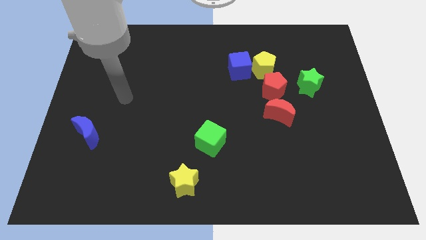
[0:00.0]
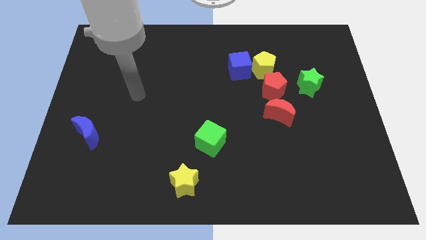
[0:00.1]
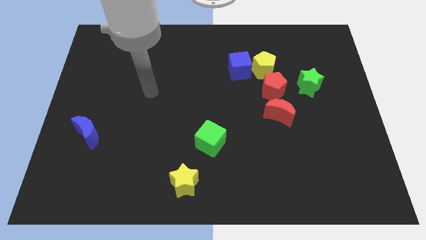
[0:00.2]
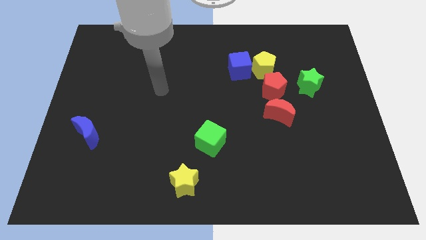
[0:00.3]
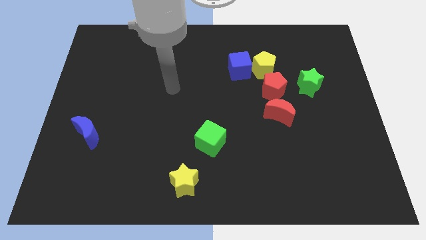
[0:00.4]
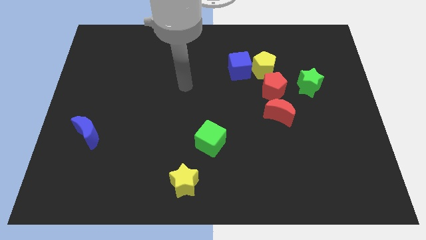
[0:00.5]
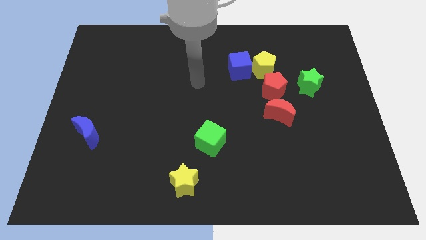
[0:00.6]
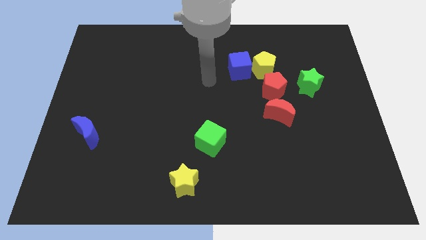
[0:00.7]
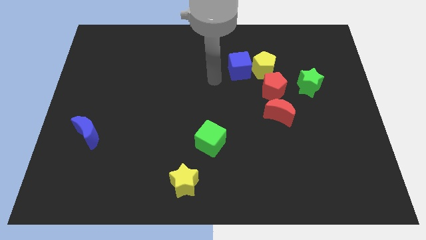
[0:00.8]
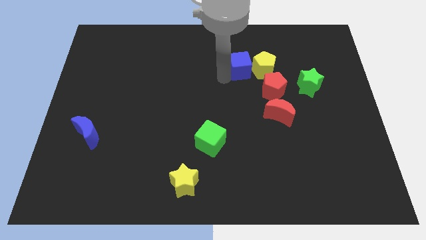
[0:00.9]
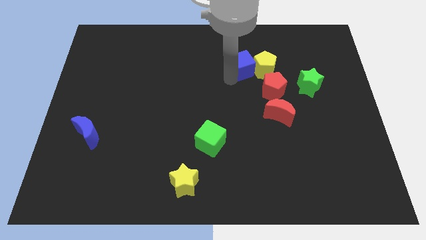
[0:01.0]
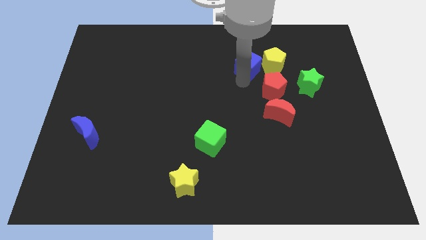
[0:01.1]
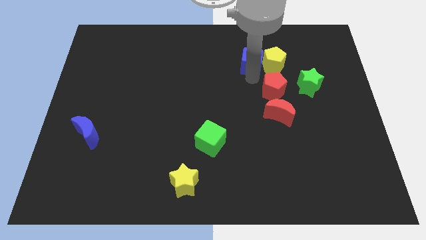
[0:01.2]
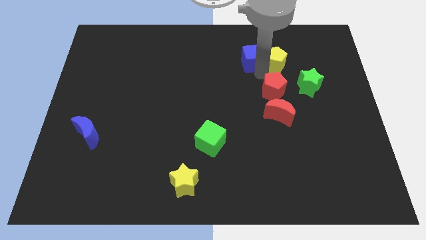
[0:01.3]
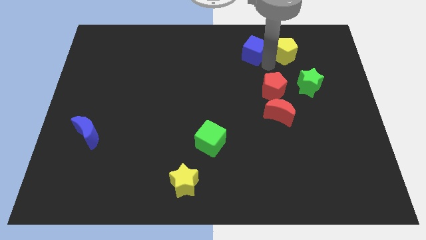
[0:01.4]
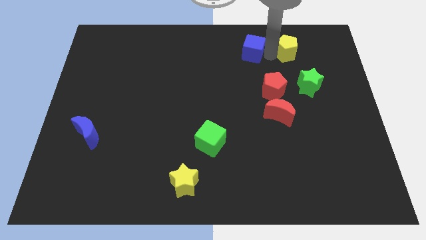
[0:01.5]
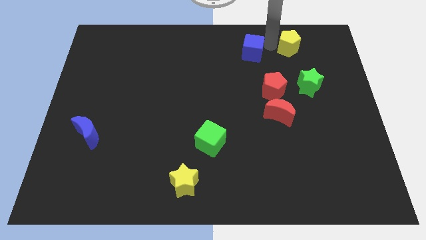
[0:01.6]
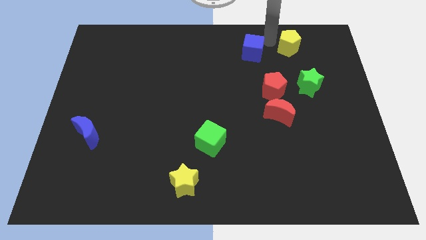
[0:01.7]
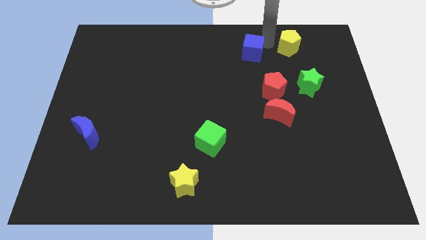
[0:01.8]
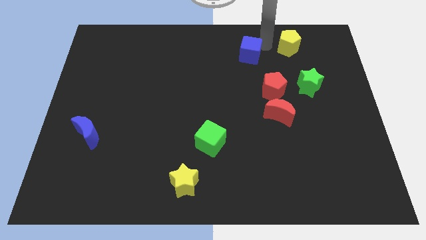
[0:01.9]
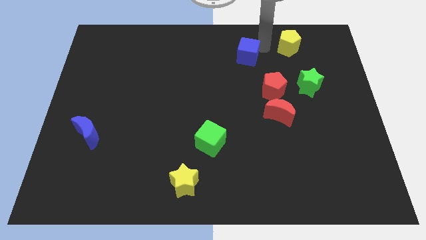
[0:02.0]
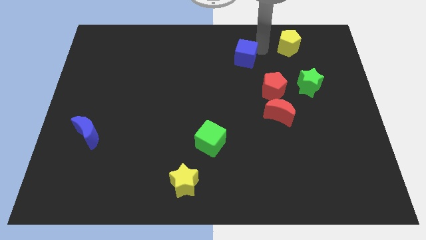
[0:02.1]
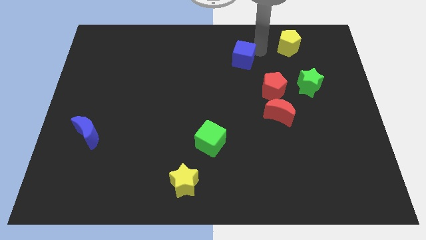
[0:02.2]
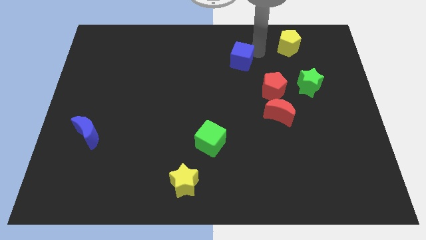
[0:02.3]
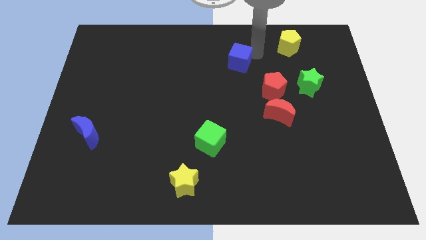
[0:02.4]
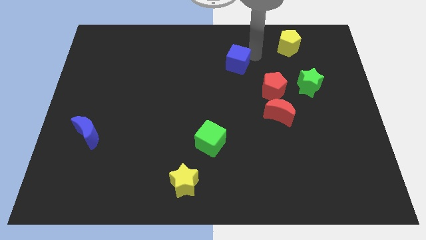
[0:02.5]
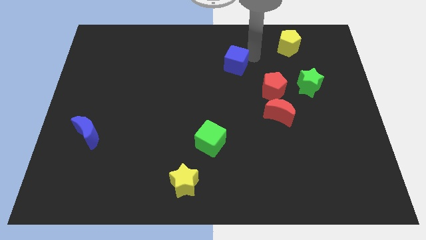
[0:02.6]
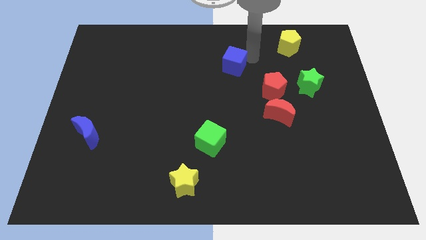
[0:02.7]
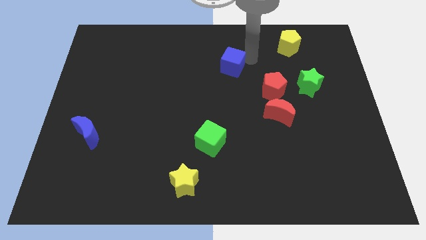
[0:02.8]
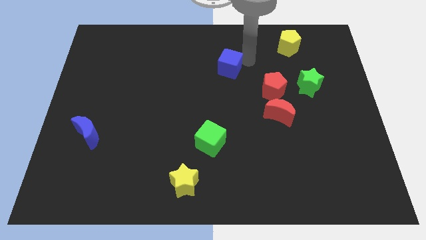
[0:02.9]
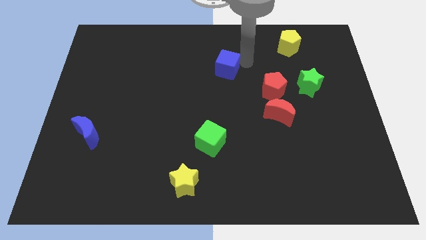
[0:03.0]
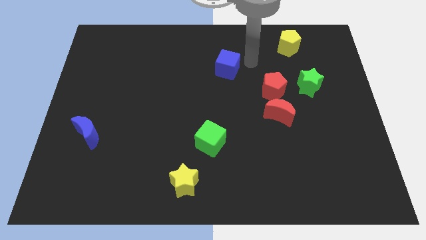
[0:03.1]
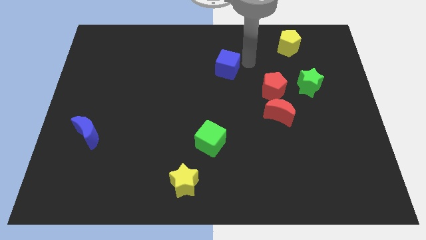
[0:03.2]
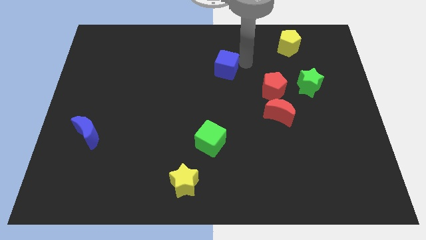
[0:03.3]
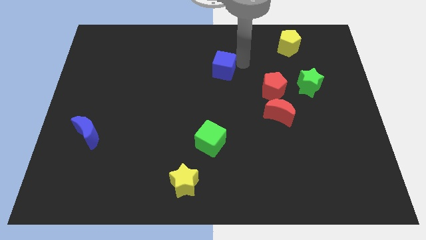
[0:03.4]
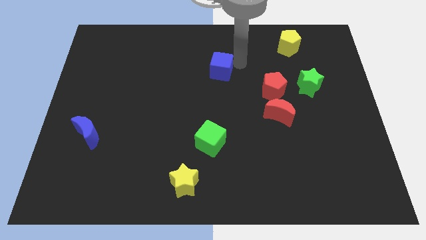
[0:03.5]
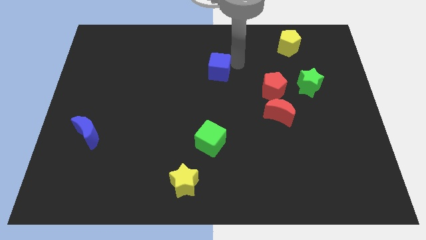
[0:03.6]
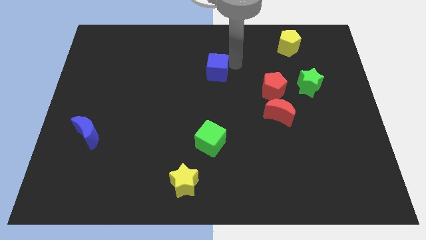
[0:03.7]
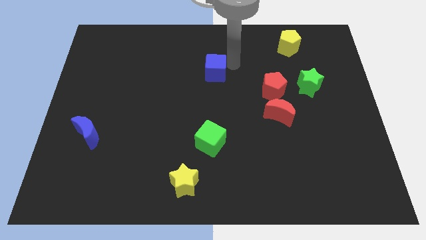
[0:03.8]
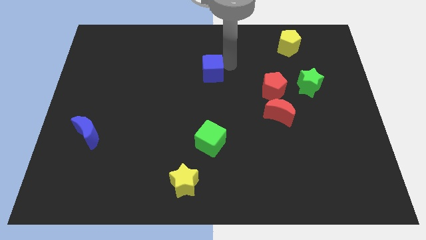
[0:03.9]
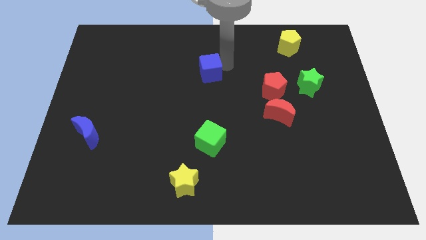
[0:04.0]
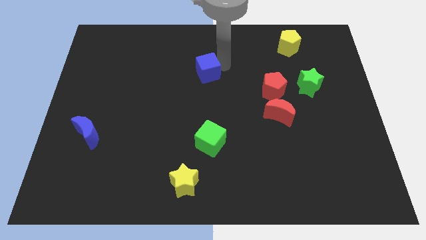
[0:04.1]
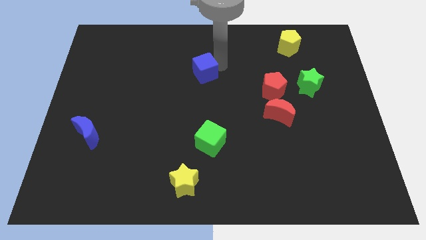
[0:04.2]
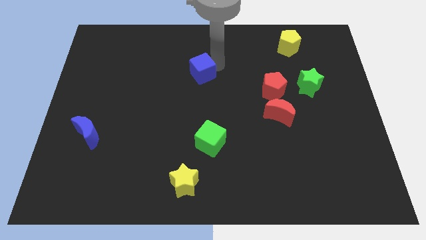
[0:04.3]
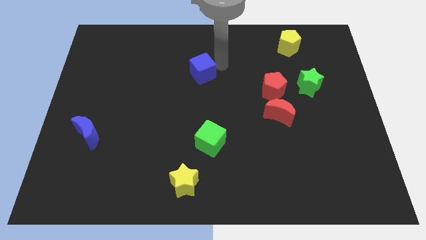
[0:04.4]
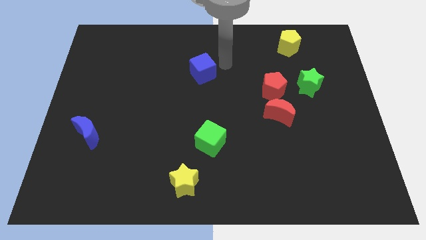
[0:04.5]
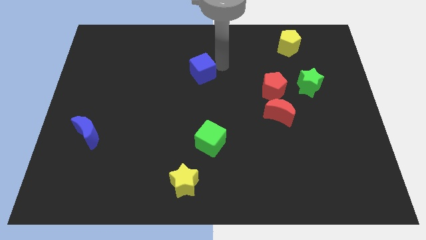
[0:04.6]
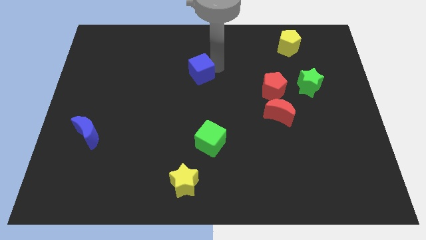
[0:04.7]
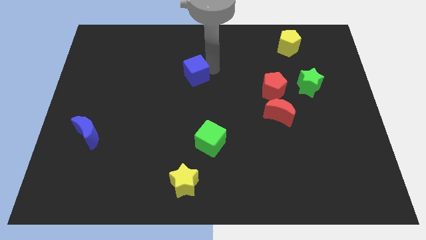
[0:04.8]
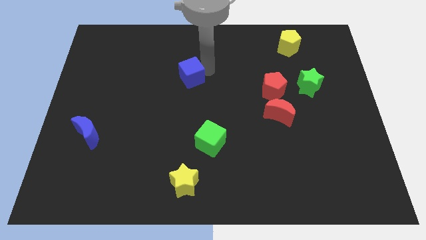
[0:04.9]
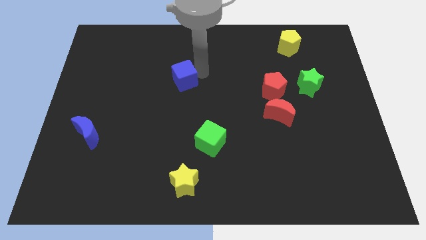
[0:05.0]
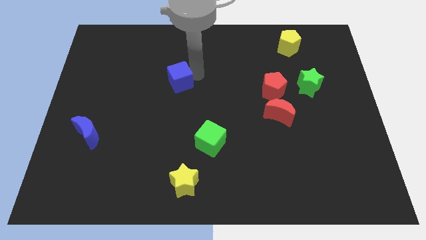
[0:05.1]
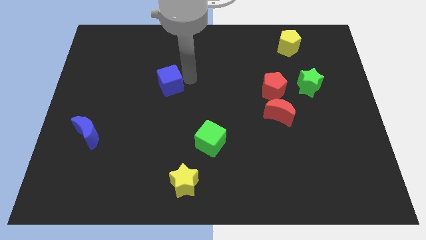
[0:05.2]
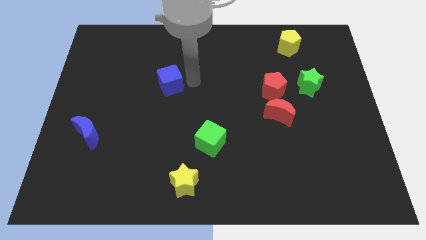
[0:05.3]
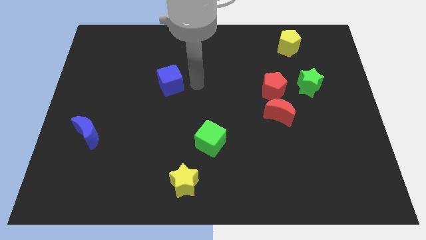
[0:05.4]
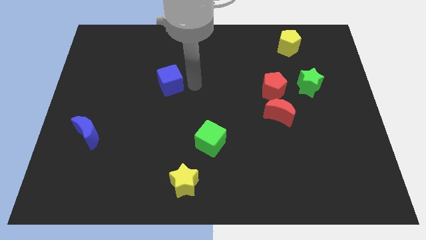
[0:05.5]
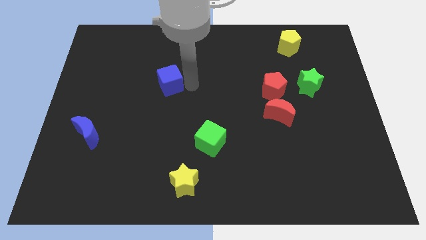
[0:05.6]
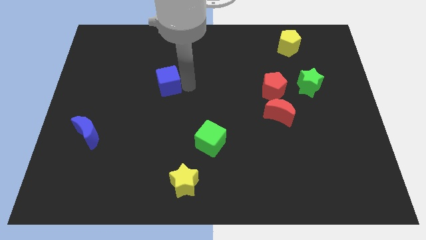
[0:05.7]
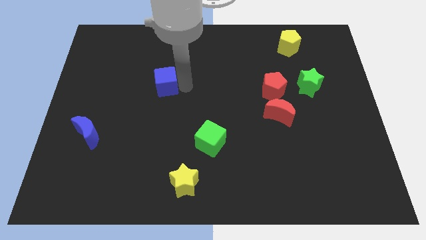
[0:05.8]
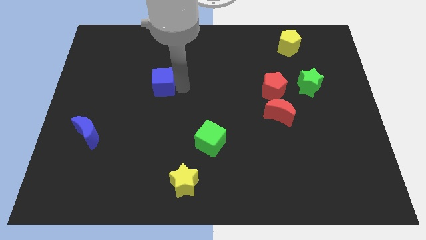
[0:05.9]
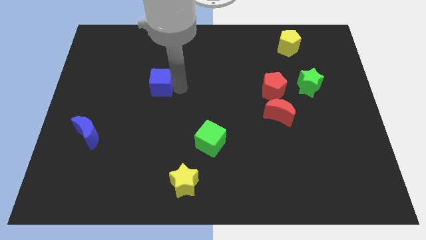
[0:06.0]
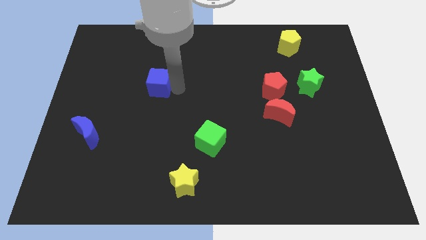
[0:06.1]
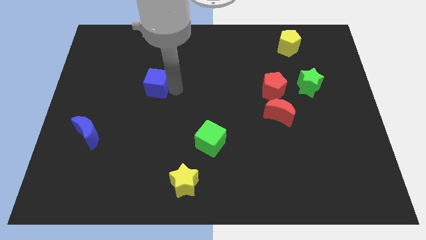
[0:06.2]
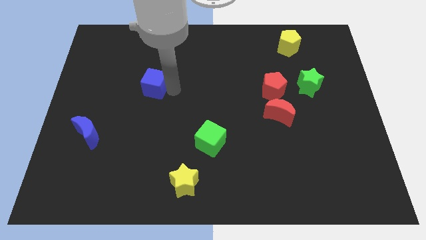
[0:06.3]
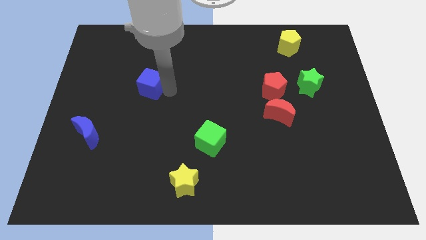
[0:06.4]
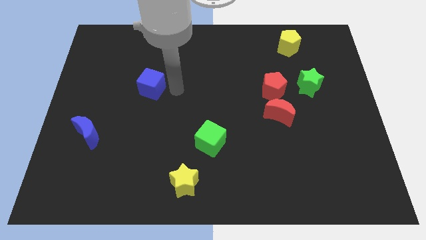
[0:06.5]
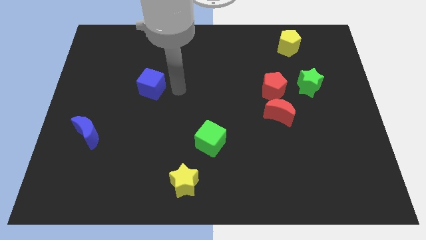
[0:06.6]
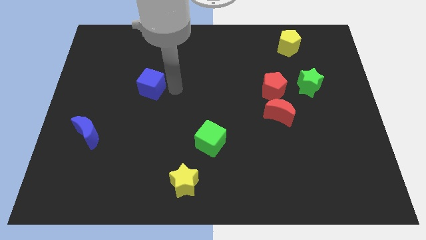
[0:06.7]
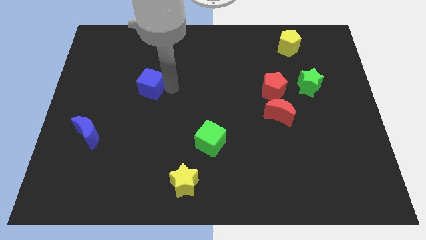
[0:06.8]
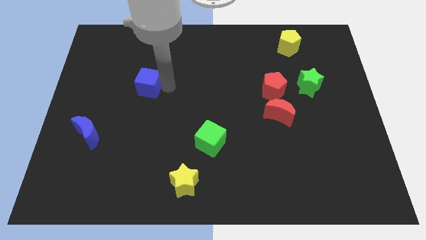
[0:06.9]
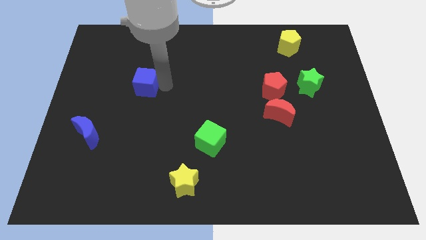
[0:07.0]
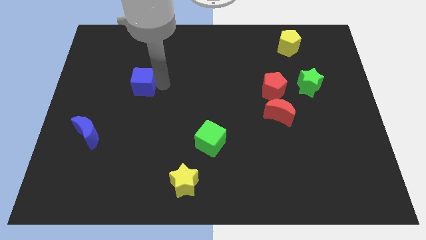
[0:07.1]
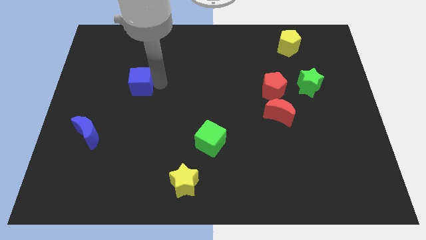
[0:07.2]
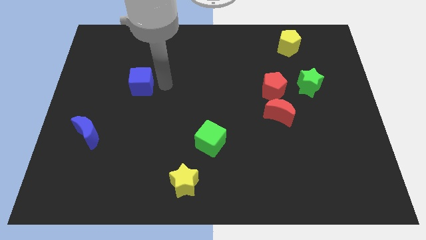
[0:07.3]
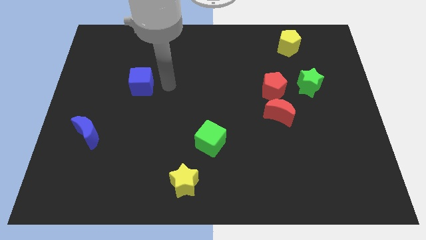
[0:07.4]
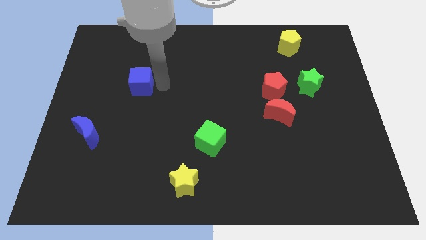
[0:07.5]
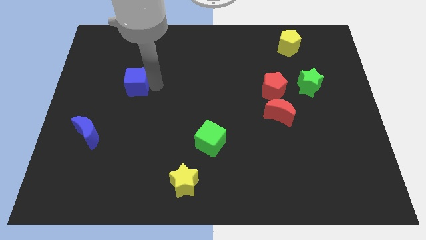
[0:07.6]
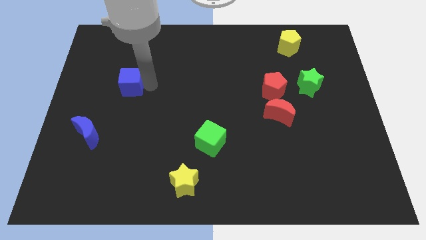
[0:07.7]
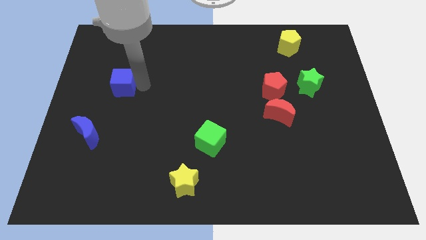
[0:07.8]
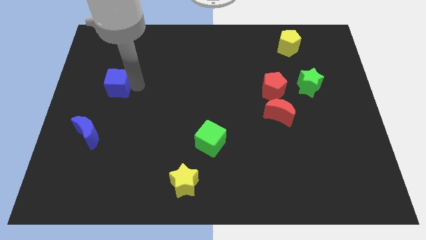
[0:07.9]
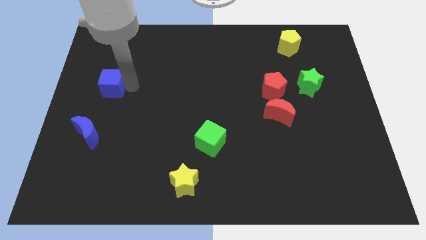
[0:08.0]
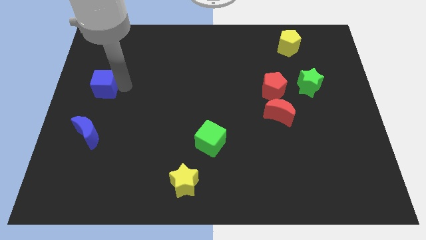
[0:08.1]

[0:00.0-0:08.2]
slide the blue cube to the left side of the board
